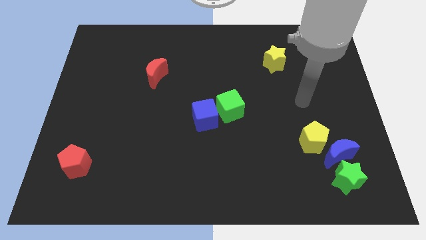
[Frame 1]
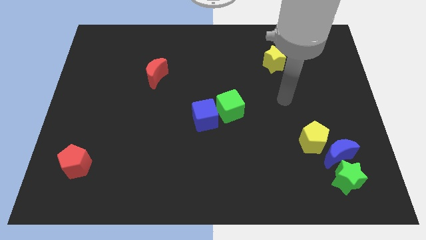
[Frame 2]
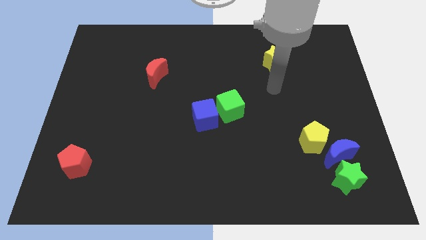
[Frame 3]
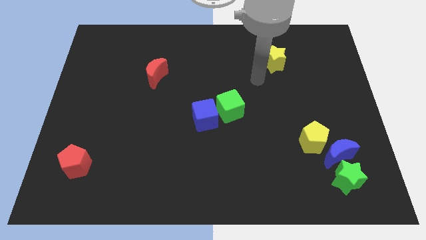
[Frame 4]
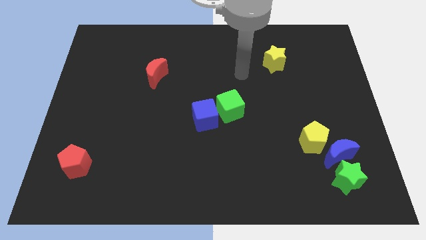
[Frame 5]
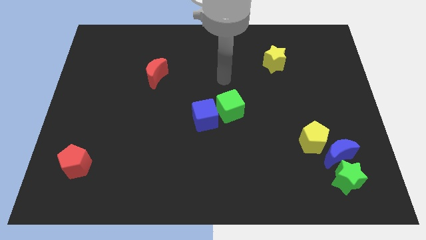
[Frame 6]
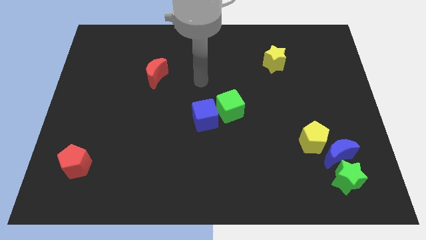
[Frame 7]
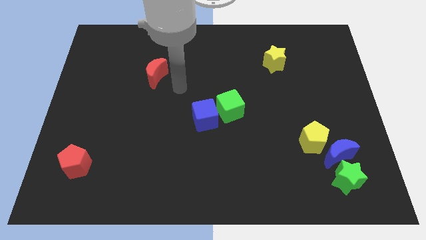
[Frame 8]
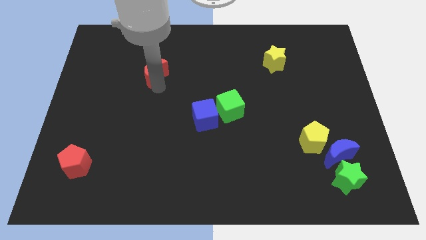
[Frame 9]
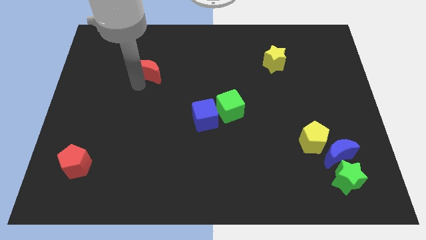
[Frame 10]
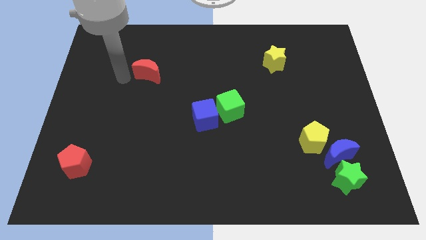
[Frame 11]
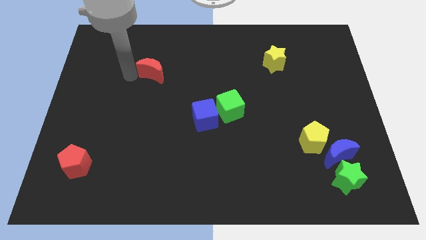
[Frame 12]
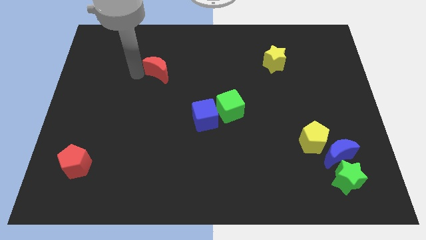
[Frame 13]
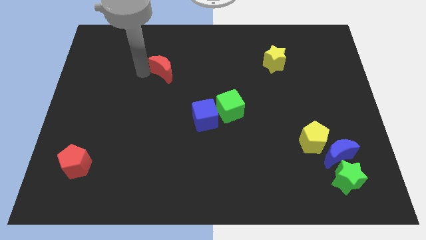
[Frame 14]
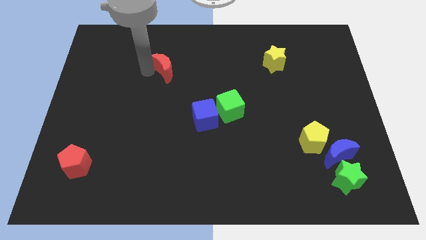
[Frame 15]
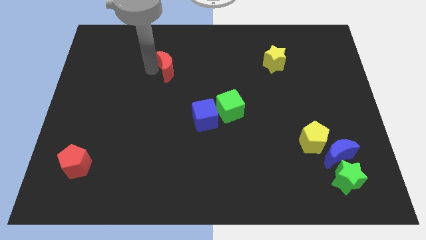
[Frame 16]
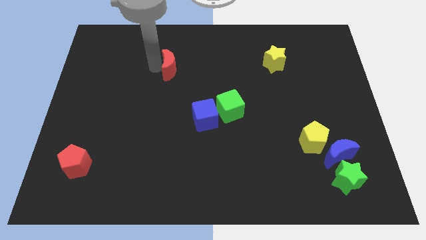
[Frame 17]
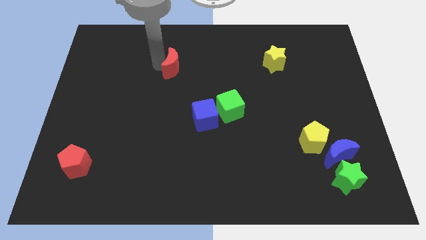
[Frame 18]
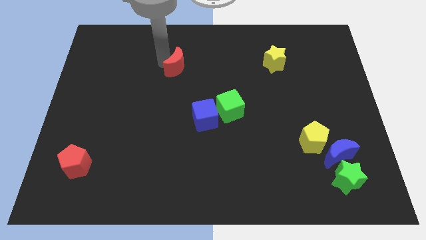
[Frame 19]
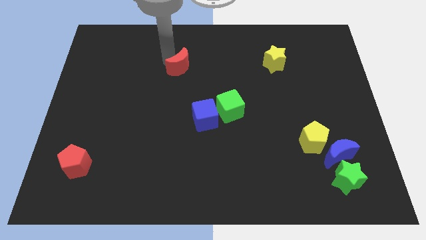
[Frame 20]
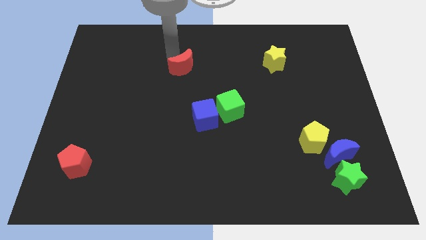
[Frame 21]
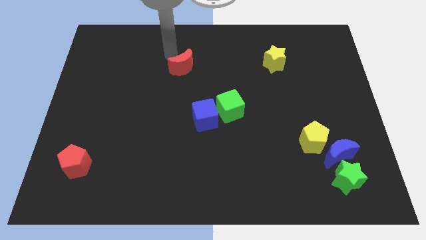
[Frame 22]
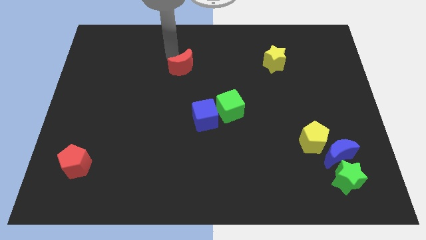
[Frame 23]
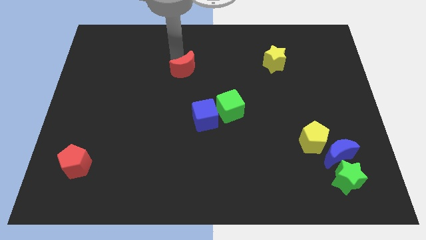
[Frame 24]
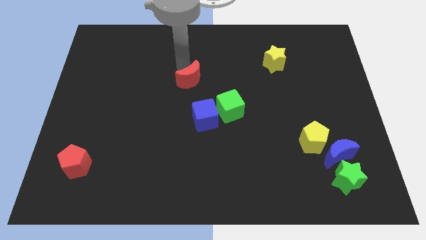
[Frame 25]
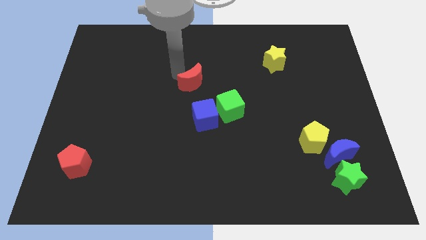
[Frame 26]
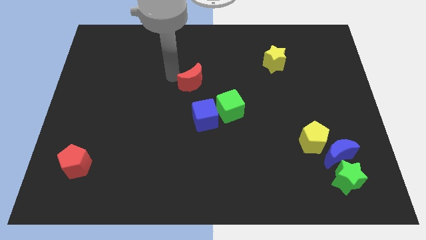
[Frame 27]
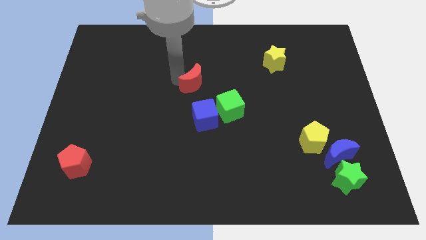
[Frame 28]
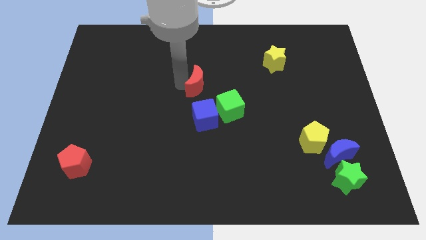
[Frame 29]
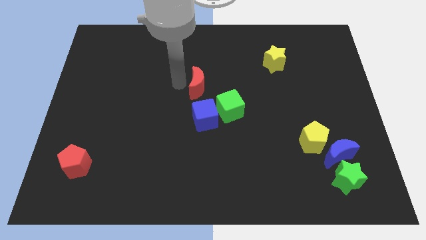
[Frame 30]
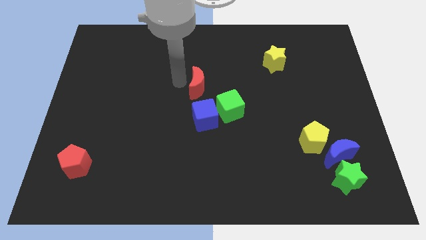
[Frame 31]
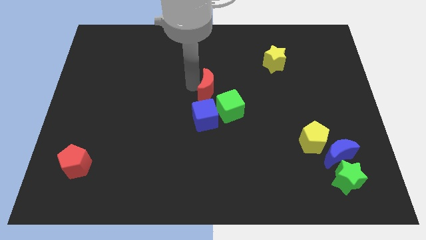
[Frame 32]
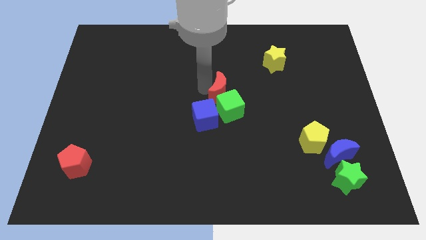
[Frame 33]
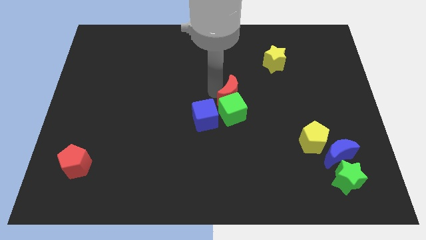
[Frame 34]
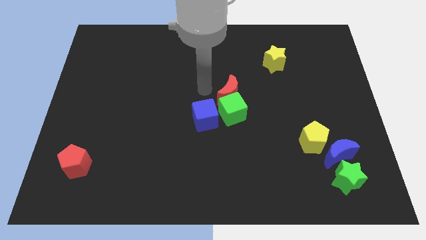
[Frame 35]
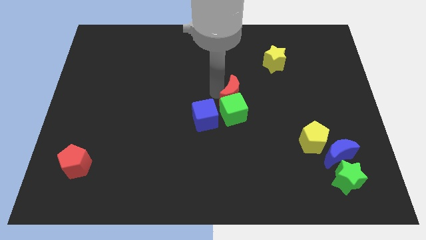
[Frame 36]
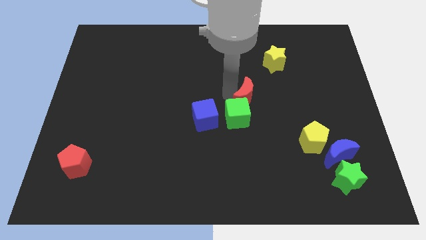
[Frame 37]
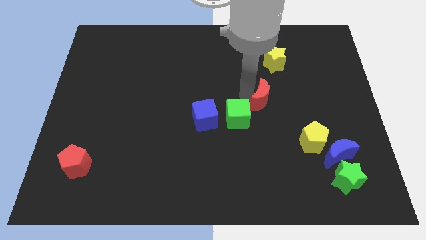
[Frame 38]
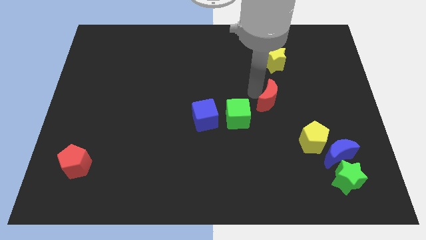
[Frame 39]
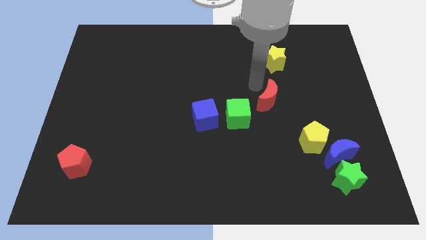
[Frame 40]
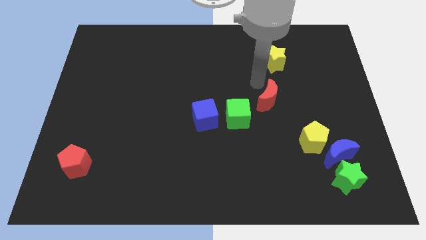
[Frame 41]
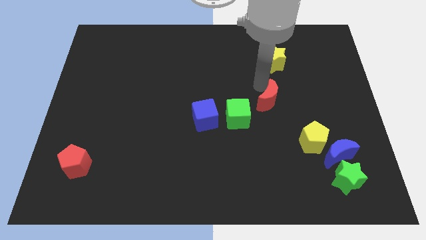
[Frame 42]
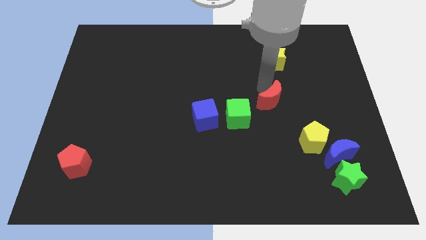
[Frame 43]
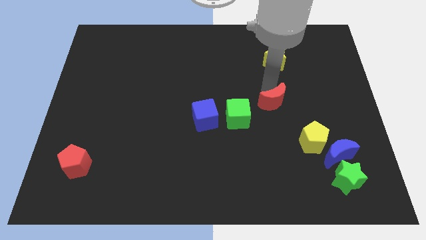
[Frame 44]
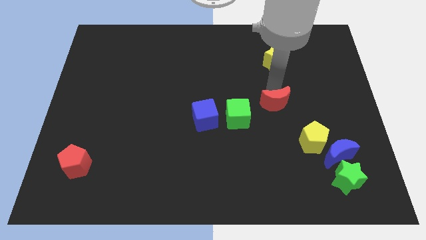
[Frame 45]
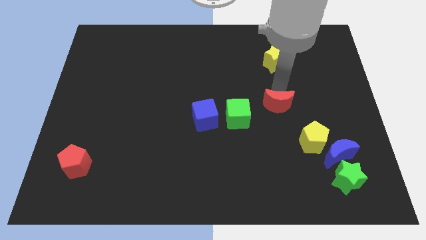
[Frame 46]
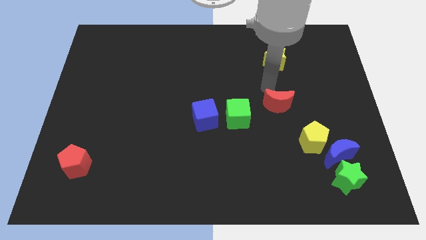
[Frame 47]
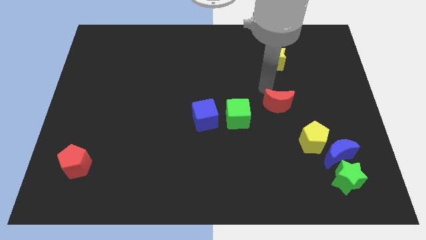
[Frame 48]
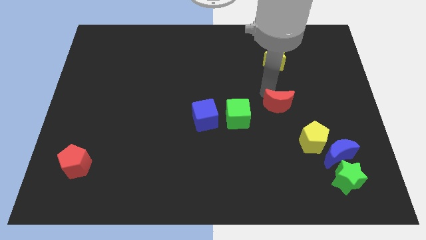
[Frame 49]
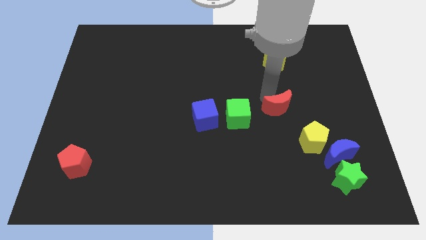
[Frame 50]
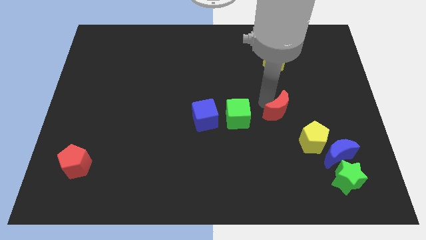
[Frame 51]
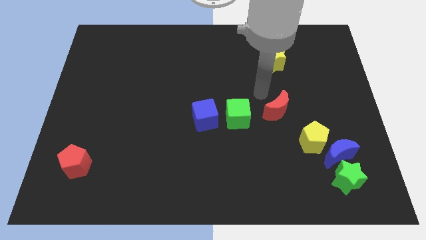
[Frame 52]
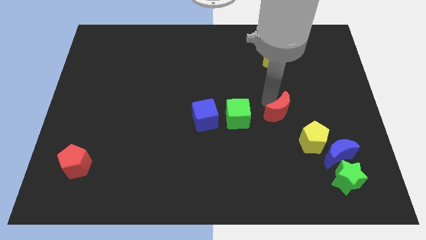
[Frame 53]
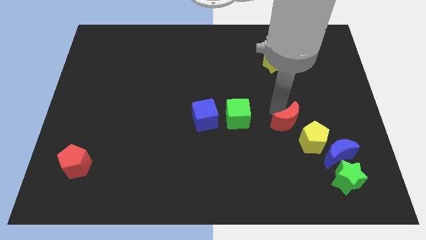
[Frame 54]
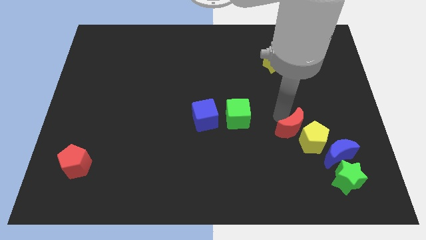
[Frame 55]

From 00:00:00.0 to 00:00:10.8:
move the red moon to the yellow pentagon

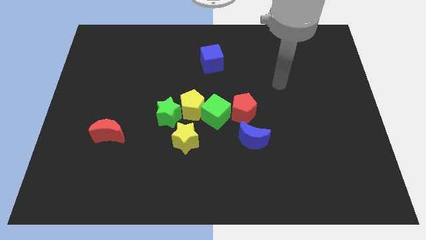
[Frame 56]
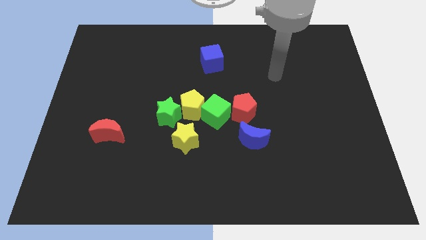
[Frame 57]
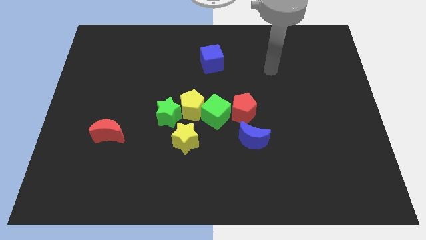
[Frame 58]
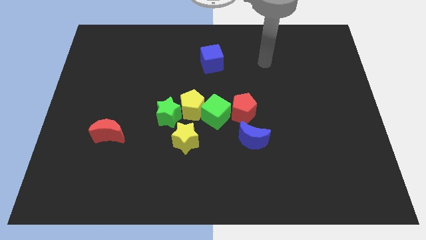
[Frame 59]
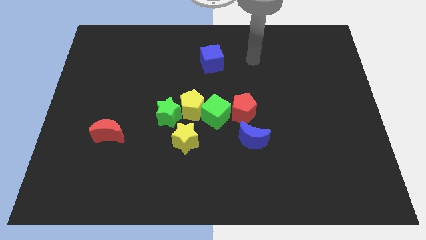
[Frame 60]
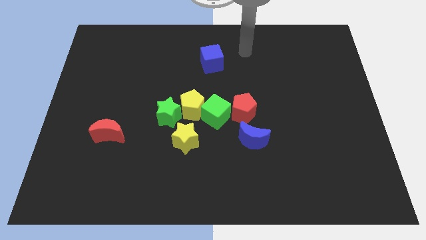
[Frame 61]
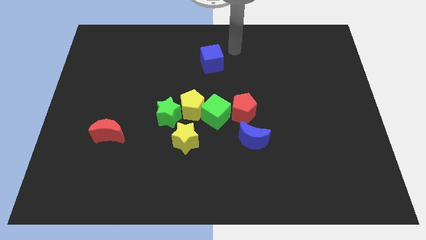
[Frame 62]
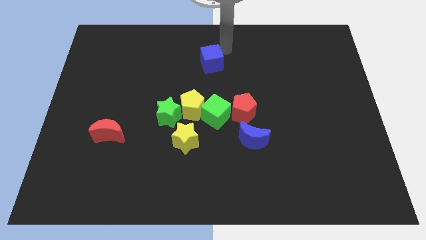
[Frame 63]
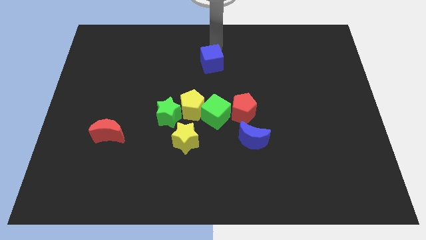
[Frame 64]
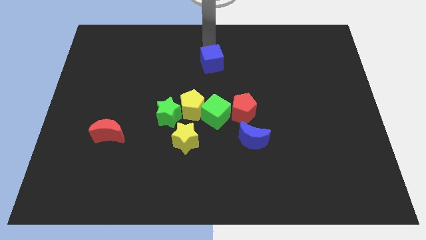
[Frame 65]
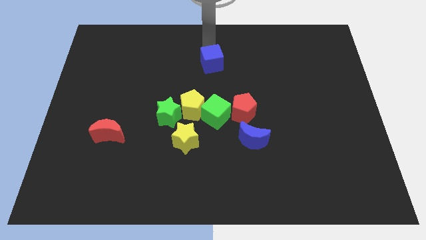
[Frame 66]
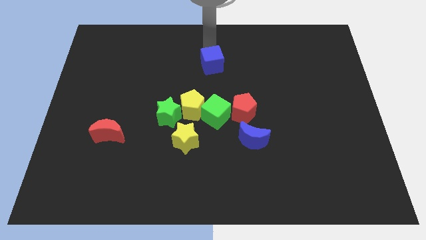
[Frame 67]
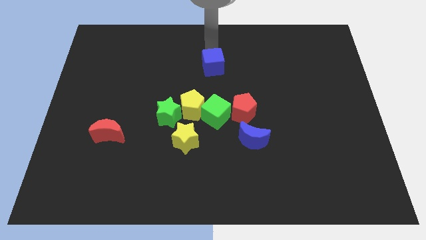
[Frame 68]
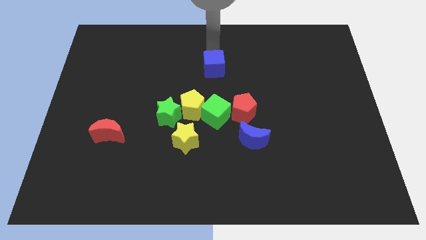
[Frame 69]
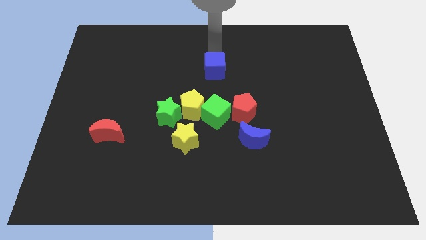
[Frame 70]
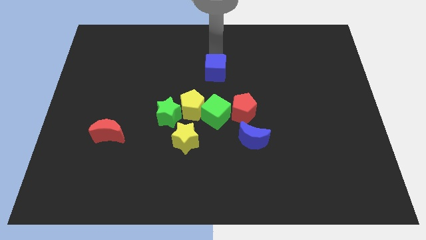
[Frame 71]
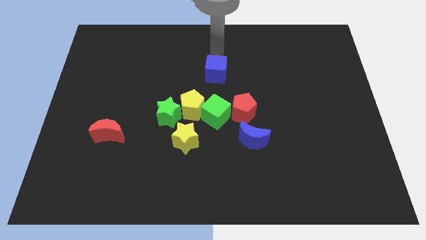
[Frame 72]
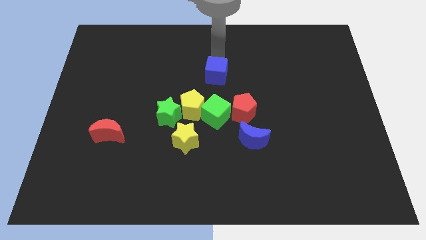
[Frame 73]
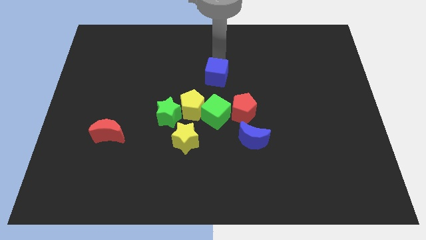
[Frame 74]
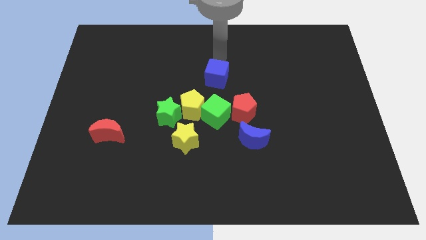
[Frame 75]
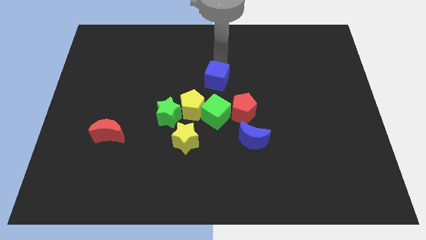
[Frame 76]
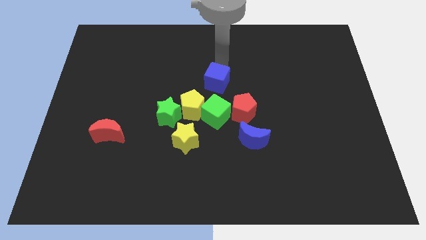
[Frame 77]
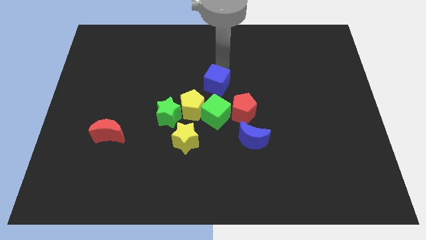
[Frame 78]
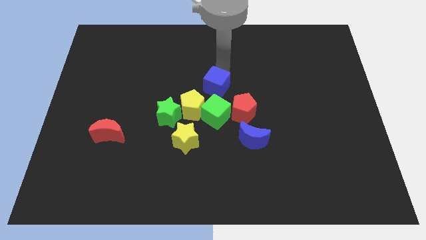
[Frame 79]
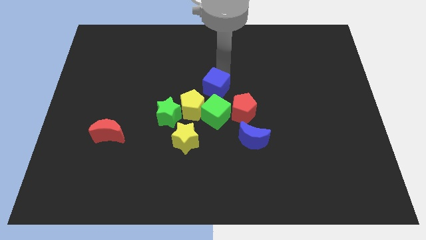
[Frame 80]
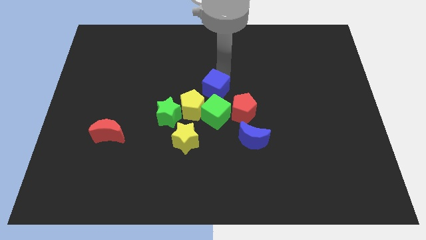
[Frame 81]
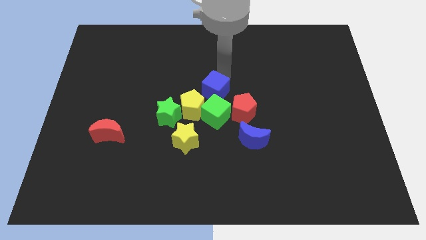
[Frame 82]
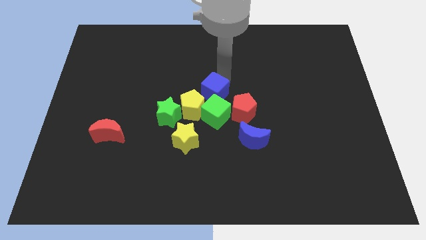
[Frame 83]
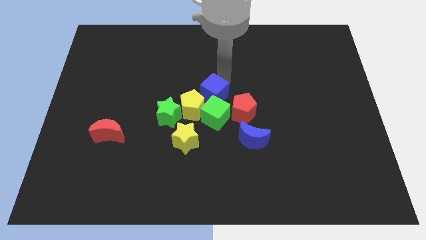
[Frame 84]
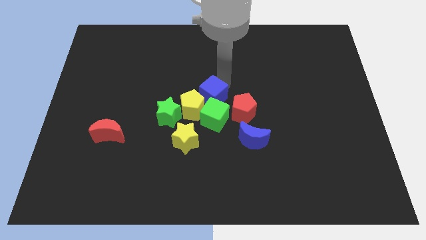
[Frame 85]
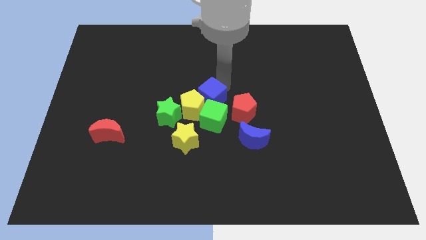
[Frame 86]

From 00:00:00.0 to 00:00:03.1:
put the blue cube to the yellow pentagon
